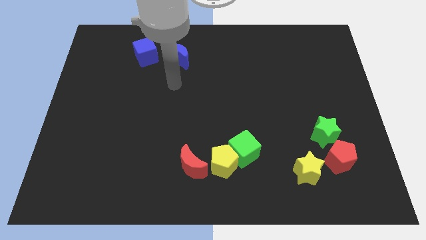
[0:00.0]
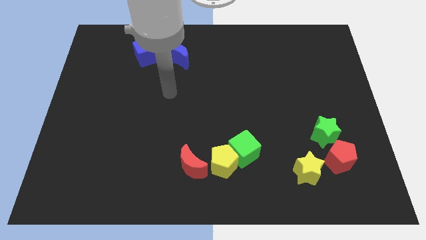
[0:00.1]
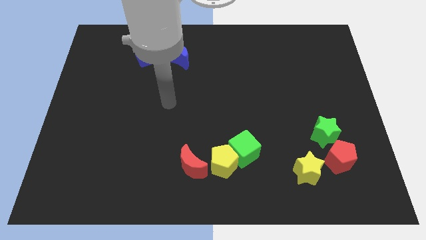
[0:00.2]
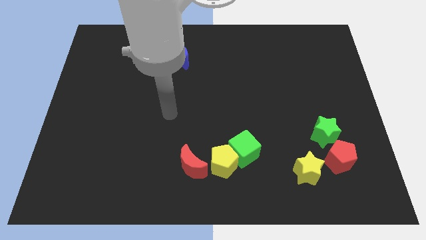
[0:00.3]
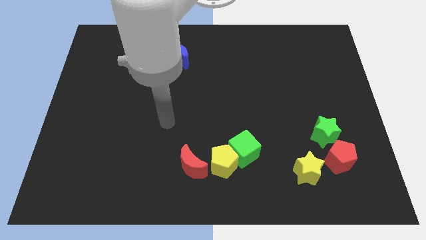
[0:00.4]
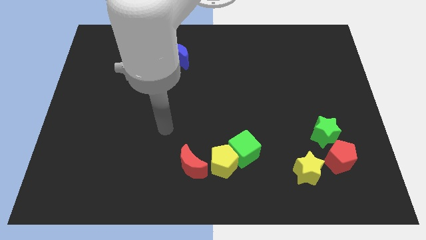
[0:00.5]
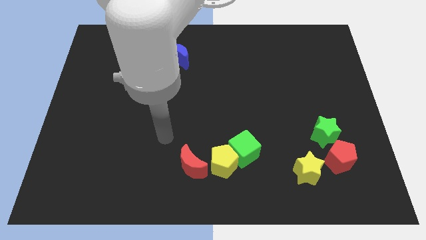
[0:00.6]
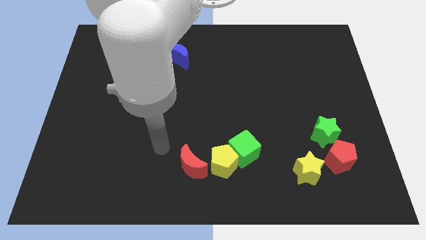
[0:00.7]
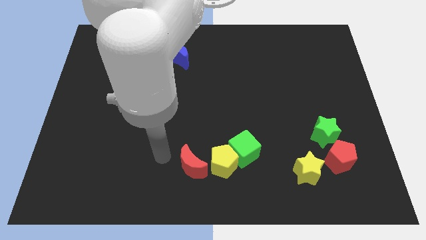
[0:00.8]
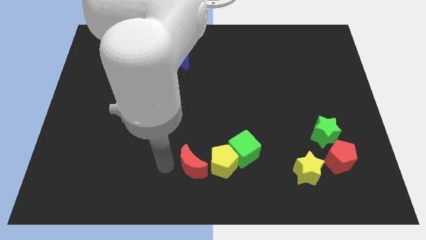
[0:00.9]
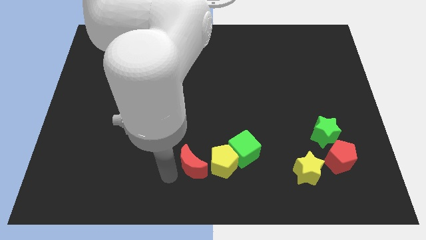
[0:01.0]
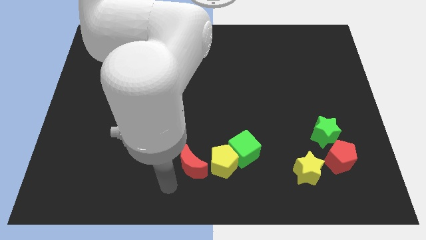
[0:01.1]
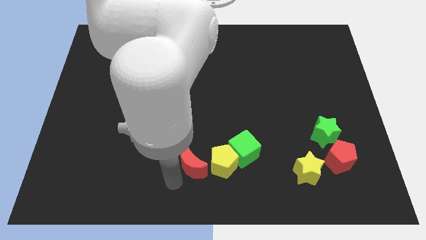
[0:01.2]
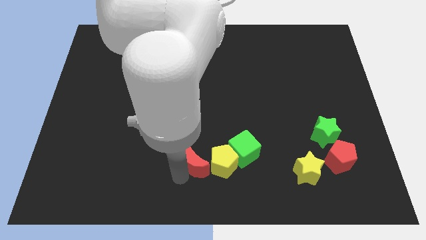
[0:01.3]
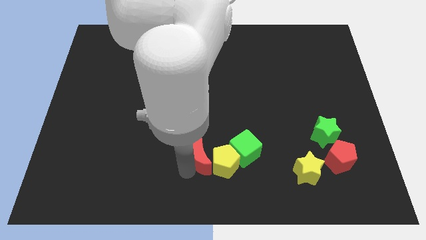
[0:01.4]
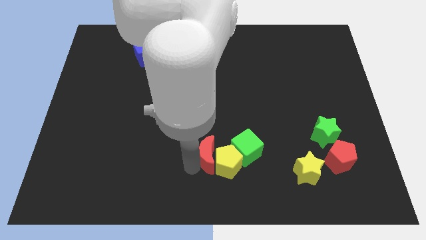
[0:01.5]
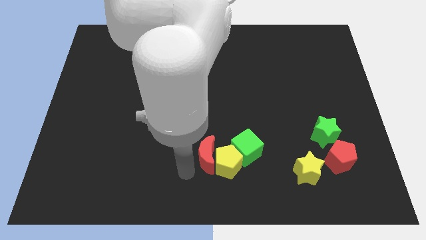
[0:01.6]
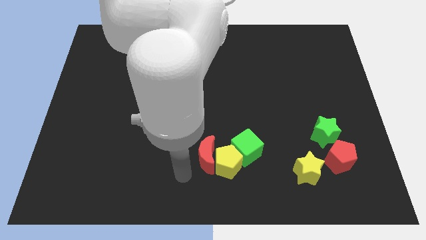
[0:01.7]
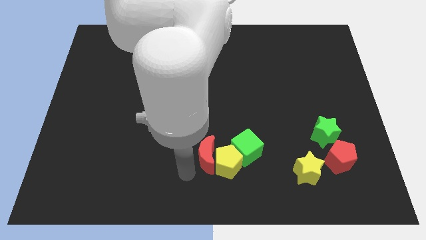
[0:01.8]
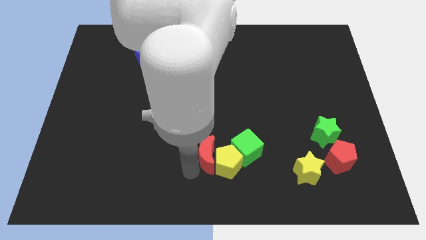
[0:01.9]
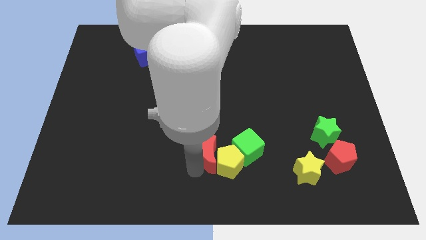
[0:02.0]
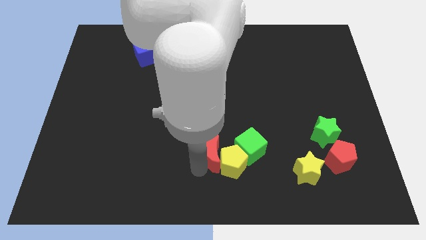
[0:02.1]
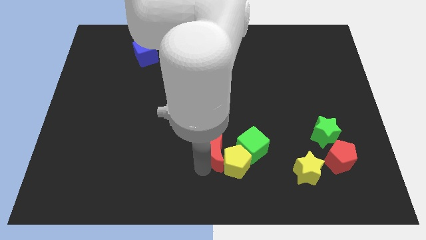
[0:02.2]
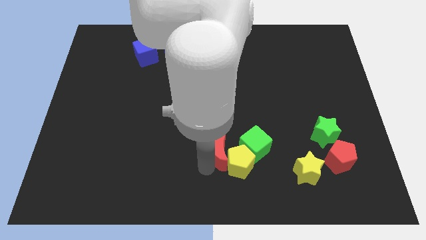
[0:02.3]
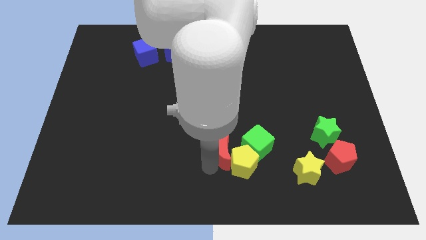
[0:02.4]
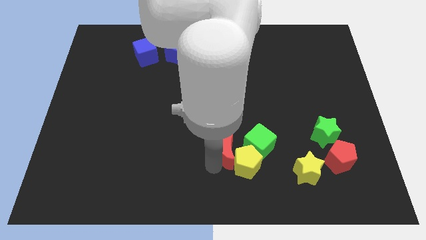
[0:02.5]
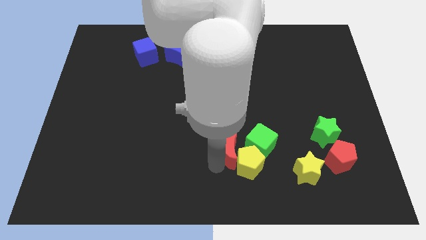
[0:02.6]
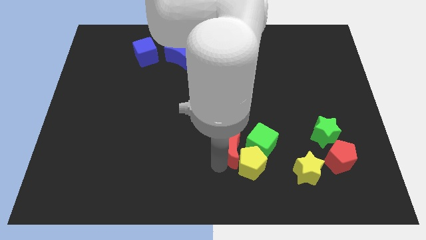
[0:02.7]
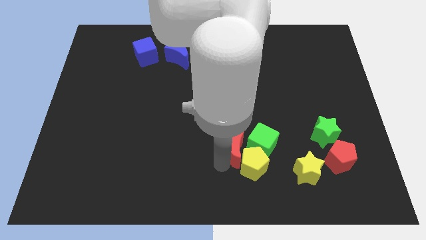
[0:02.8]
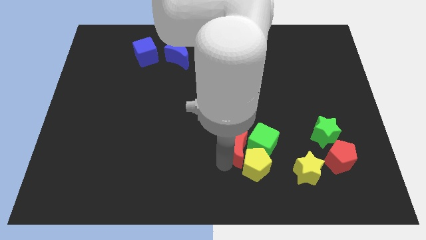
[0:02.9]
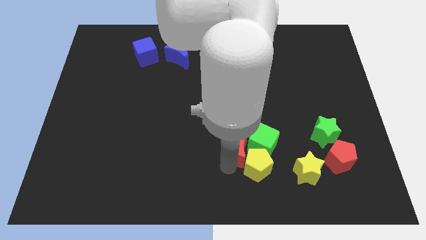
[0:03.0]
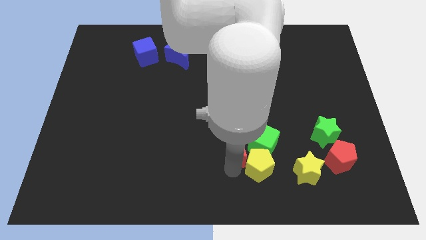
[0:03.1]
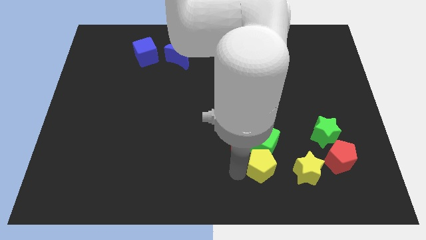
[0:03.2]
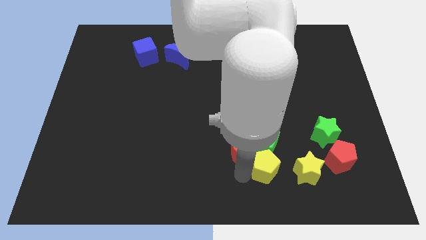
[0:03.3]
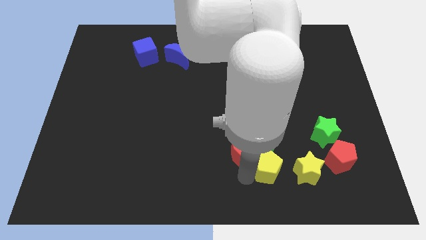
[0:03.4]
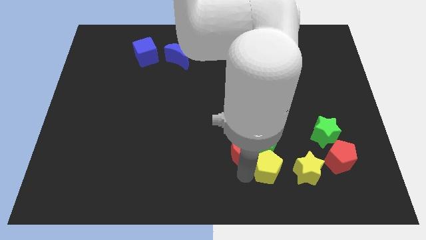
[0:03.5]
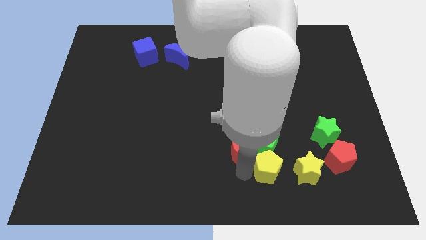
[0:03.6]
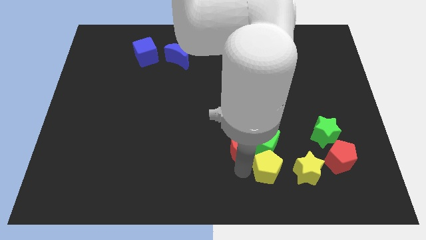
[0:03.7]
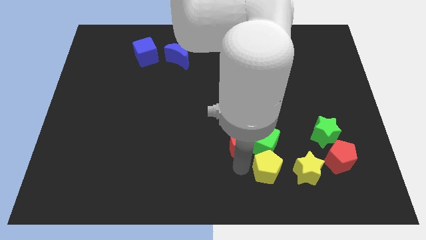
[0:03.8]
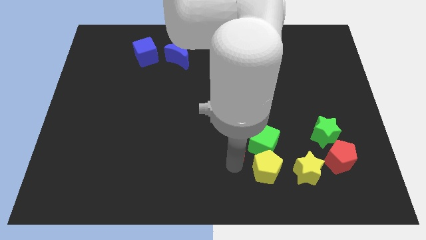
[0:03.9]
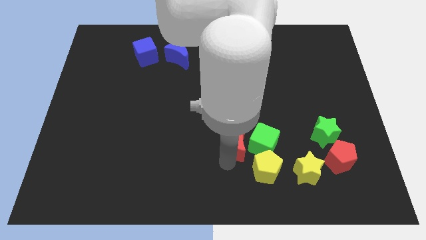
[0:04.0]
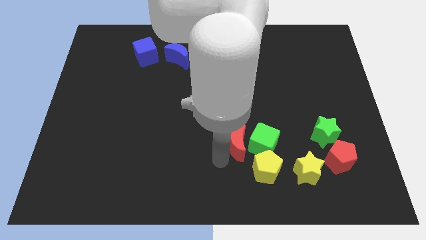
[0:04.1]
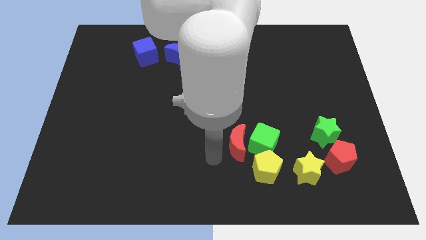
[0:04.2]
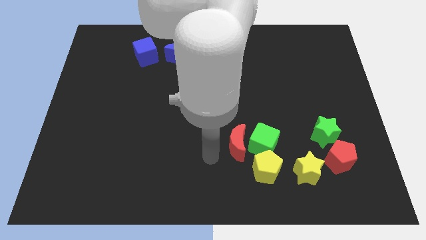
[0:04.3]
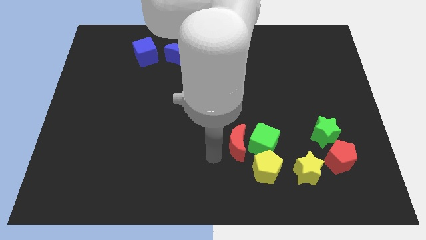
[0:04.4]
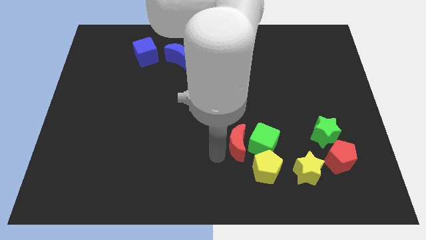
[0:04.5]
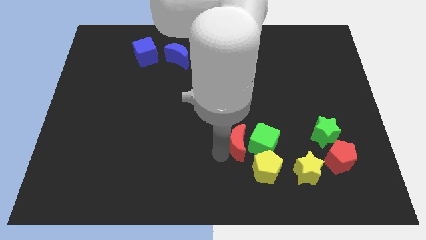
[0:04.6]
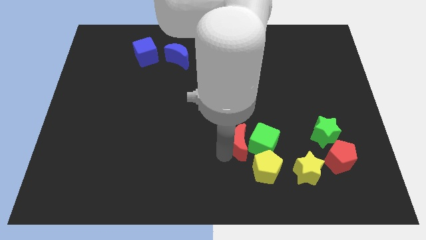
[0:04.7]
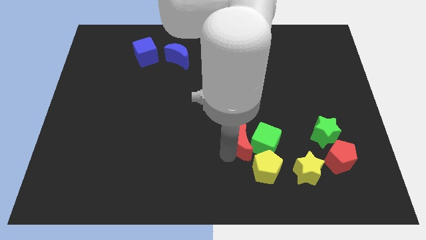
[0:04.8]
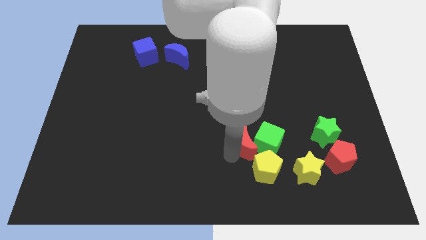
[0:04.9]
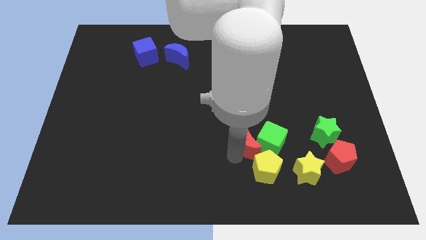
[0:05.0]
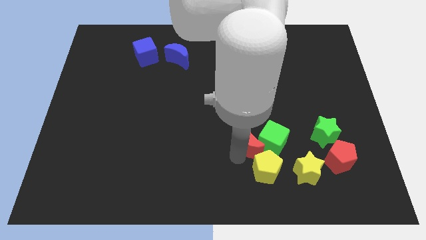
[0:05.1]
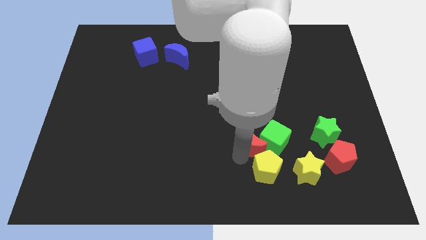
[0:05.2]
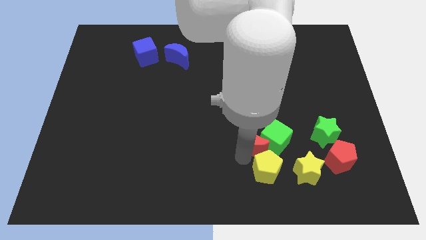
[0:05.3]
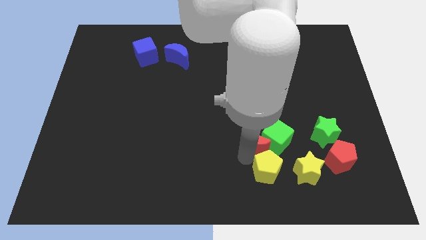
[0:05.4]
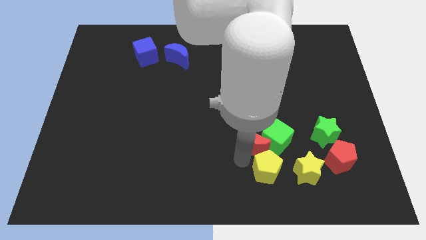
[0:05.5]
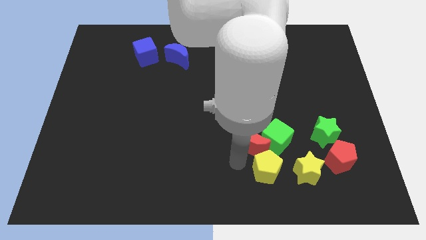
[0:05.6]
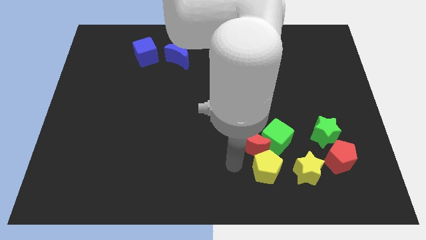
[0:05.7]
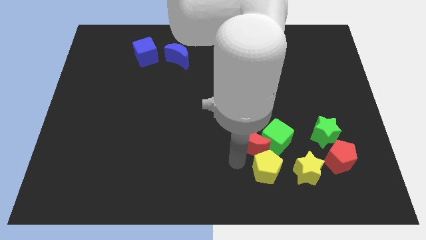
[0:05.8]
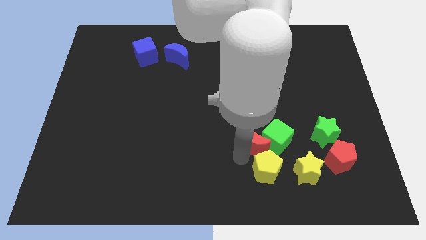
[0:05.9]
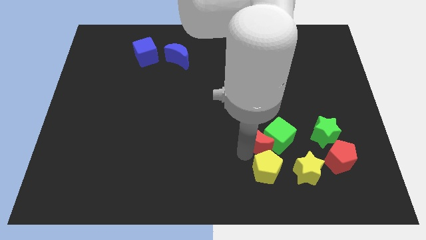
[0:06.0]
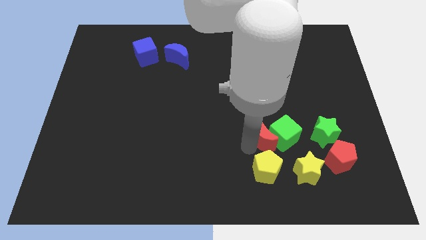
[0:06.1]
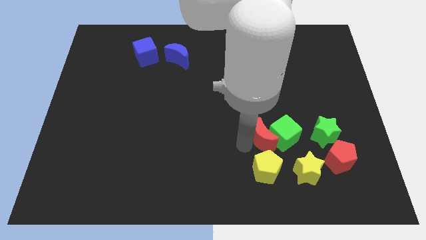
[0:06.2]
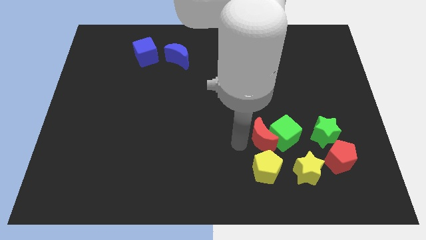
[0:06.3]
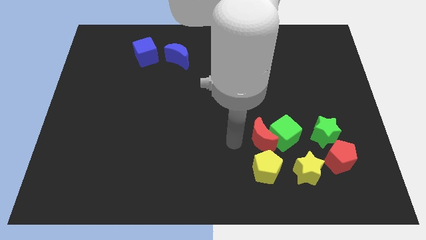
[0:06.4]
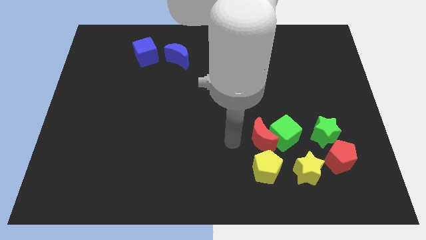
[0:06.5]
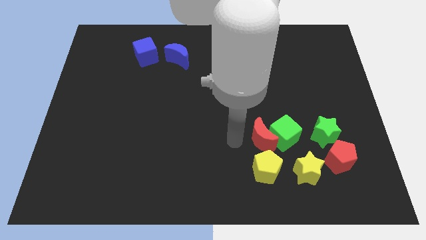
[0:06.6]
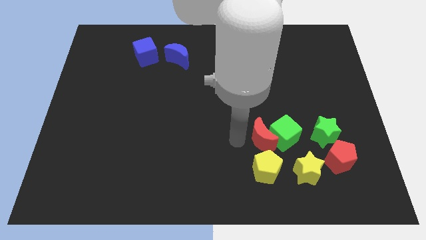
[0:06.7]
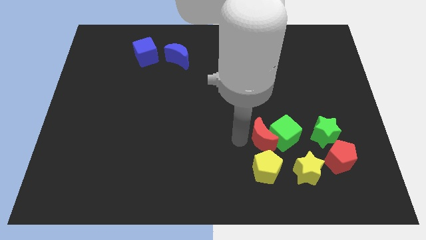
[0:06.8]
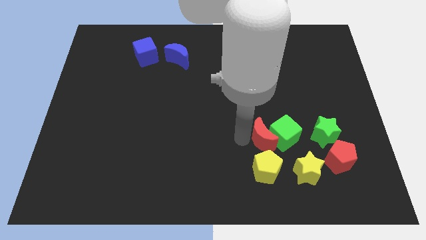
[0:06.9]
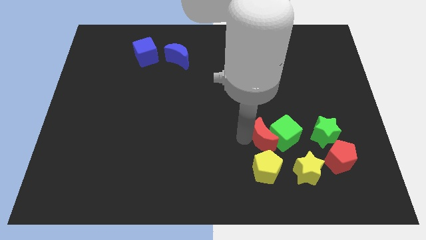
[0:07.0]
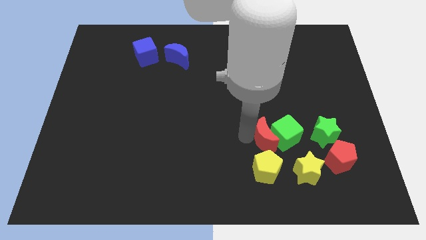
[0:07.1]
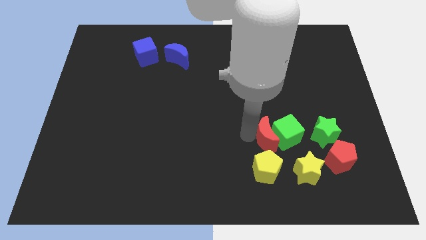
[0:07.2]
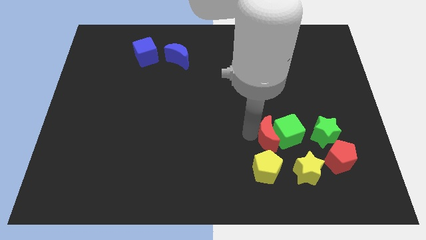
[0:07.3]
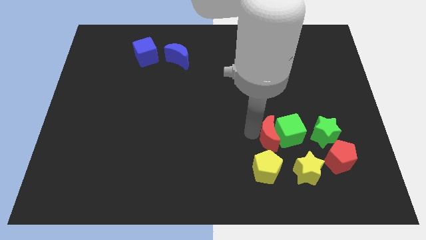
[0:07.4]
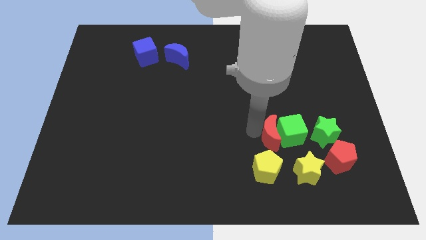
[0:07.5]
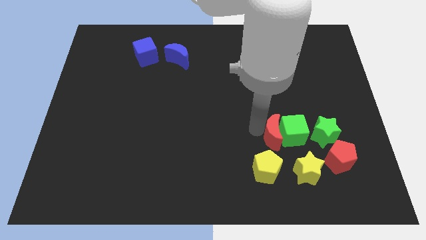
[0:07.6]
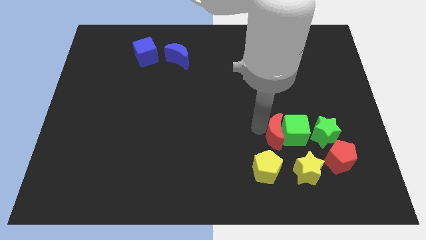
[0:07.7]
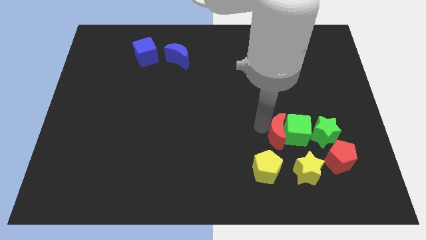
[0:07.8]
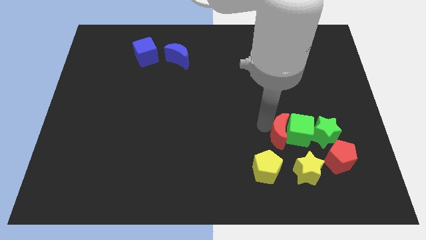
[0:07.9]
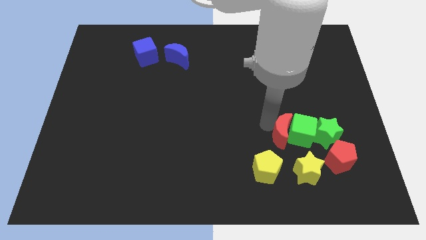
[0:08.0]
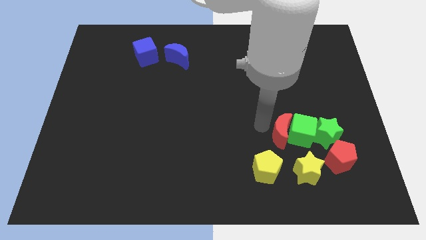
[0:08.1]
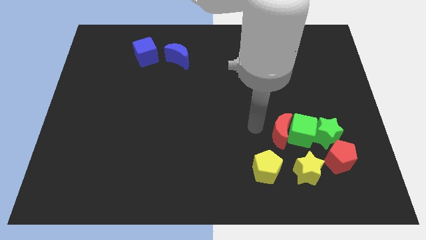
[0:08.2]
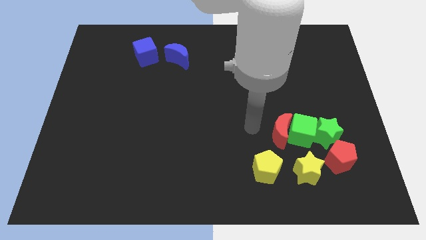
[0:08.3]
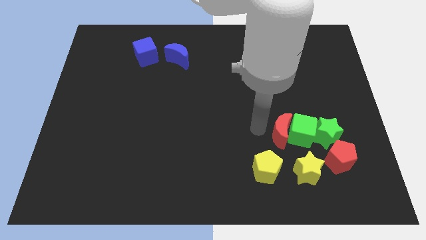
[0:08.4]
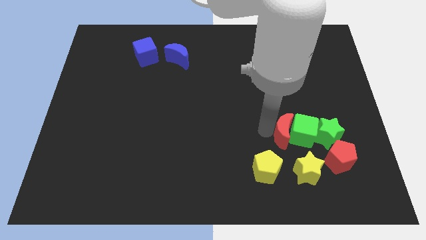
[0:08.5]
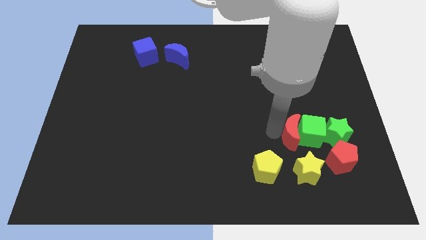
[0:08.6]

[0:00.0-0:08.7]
move the red moon to the top left of the red pentagon
